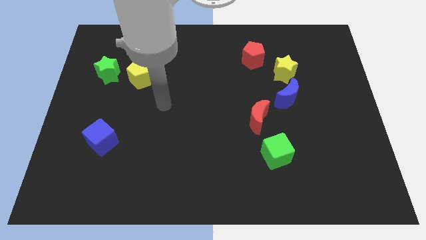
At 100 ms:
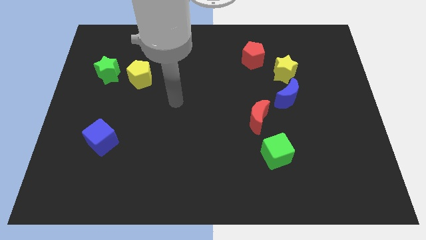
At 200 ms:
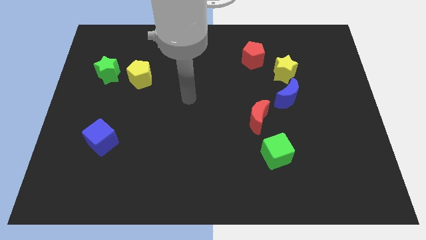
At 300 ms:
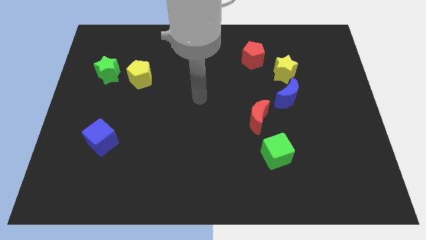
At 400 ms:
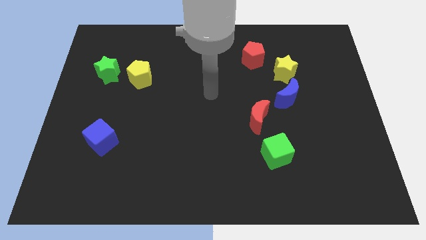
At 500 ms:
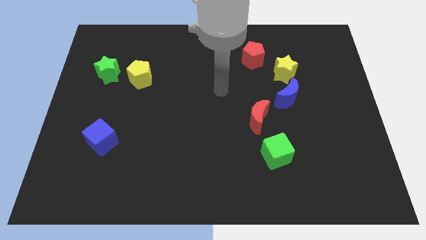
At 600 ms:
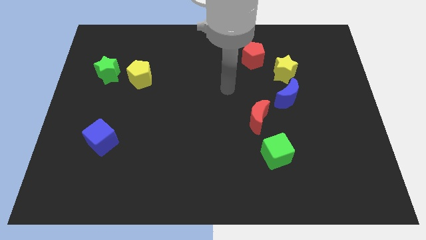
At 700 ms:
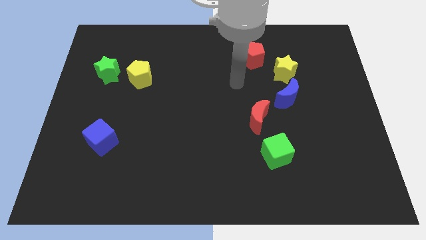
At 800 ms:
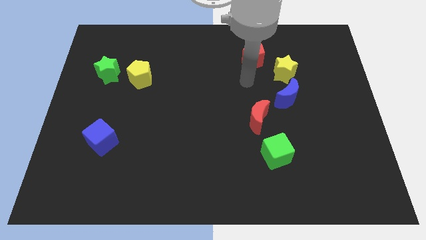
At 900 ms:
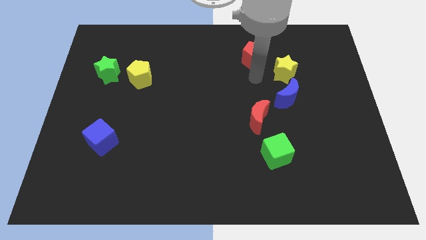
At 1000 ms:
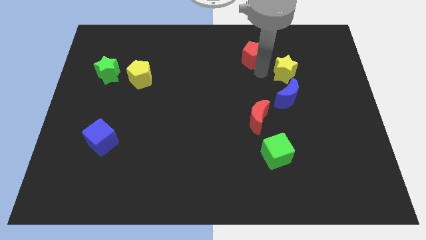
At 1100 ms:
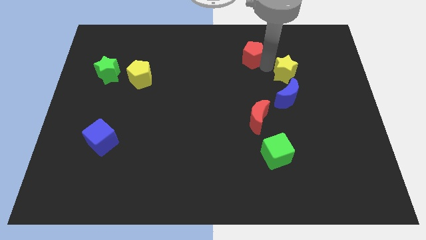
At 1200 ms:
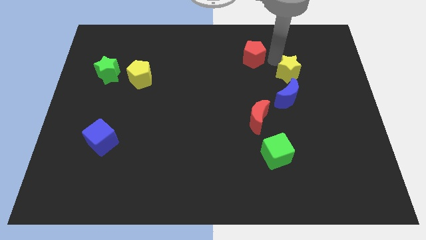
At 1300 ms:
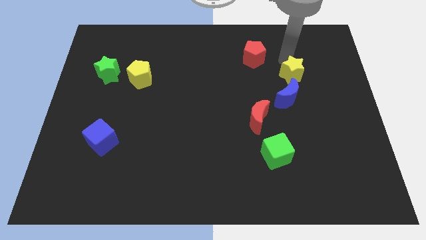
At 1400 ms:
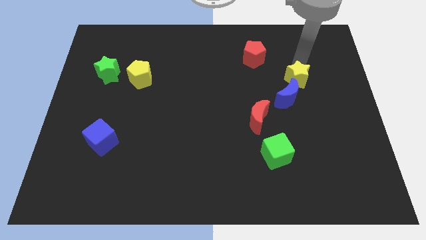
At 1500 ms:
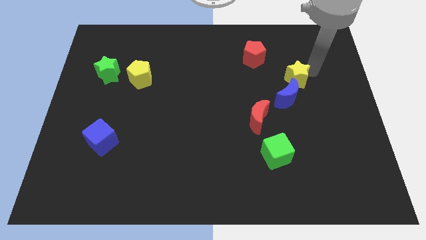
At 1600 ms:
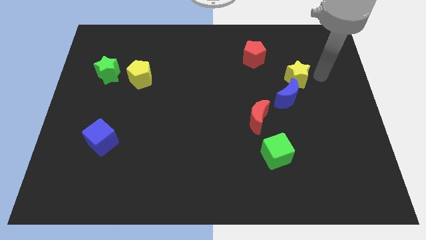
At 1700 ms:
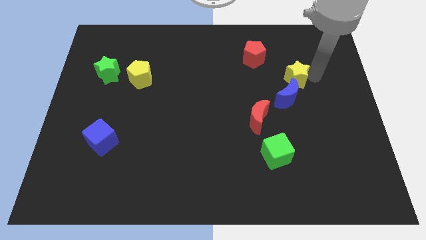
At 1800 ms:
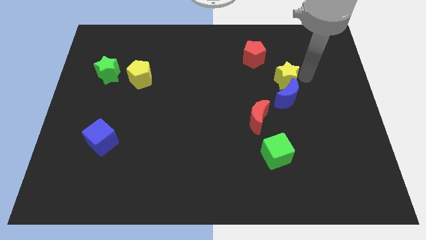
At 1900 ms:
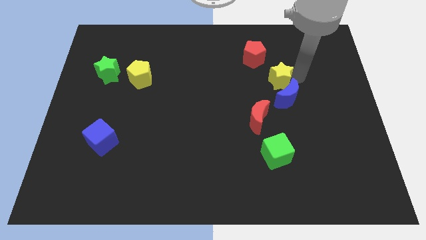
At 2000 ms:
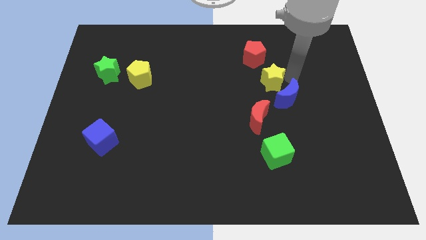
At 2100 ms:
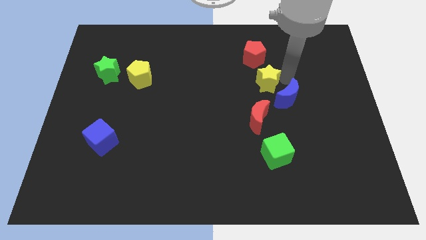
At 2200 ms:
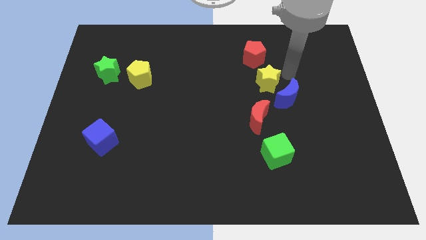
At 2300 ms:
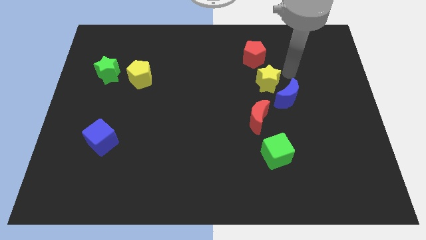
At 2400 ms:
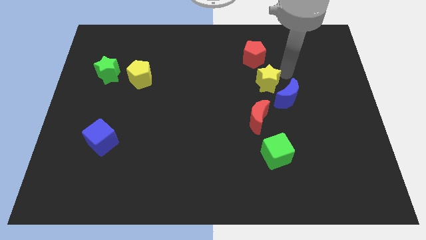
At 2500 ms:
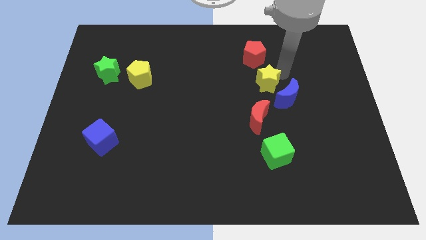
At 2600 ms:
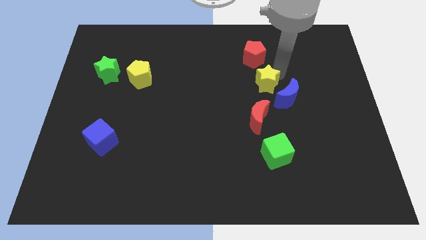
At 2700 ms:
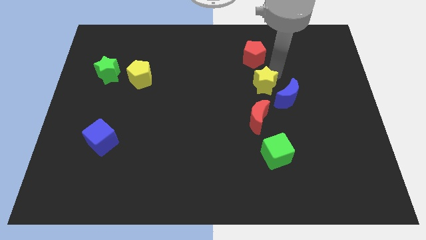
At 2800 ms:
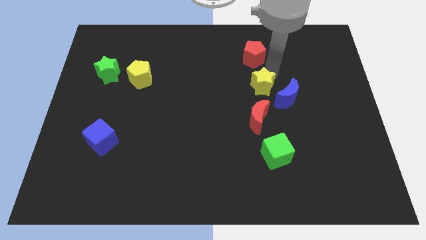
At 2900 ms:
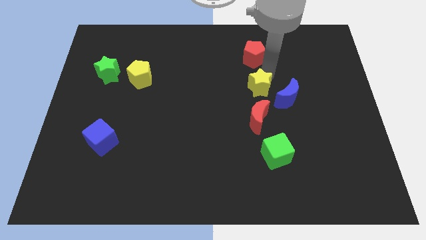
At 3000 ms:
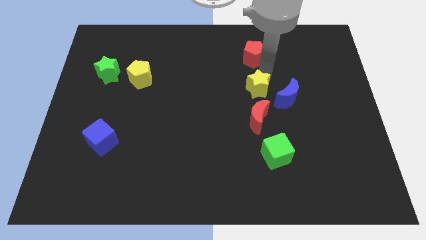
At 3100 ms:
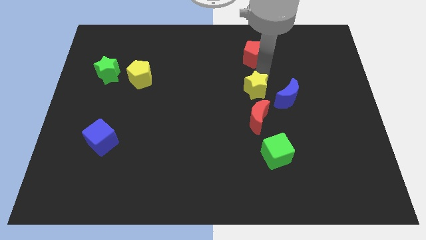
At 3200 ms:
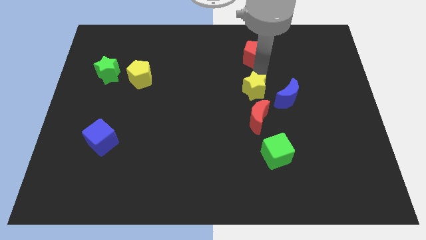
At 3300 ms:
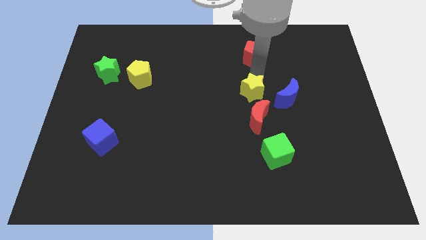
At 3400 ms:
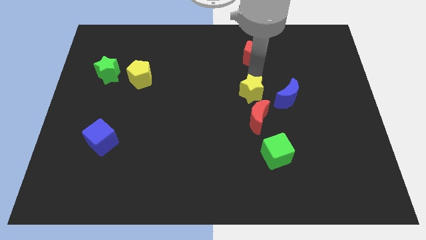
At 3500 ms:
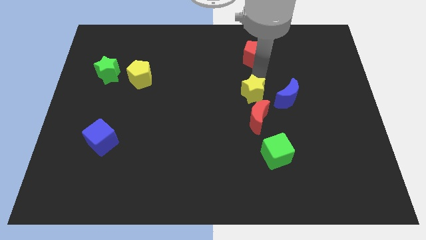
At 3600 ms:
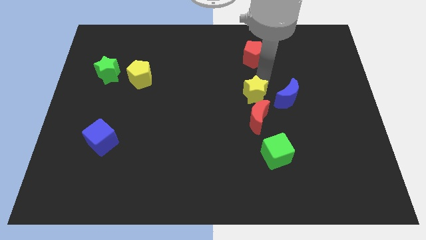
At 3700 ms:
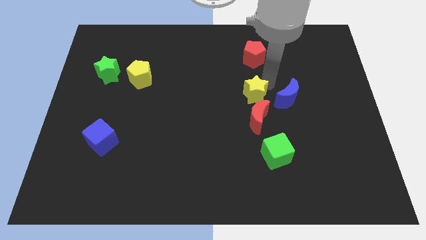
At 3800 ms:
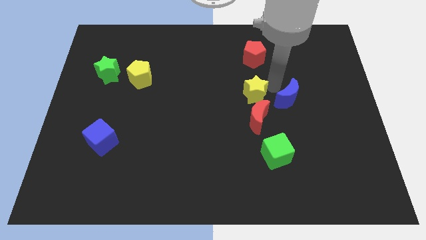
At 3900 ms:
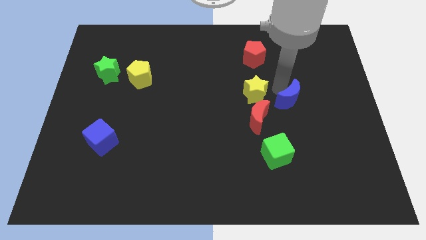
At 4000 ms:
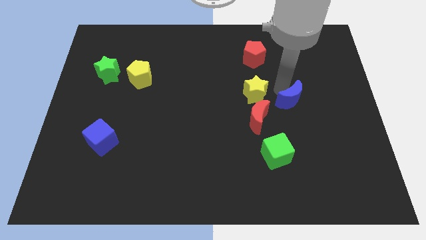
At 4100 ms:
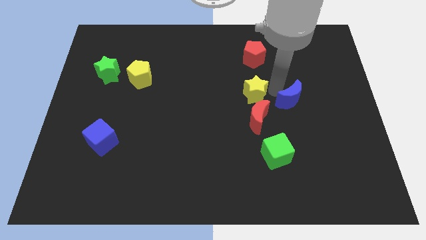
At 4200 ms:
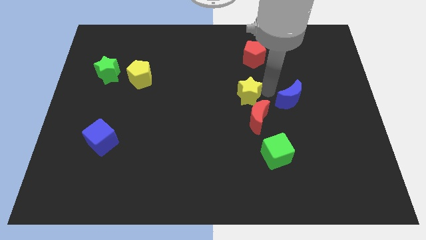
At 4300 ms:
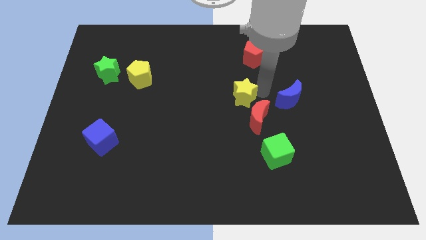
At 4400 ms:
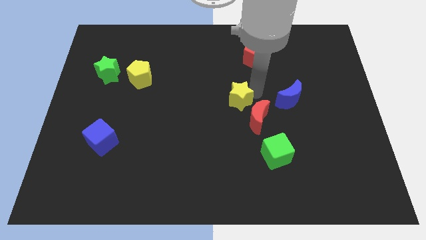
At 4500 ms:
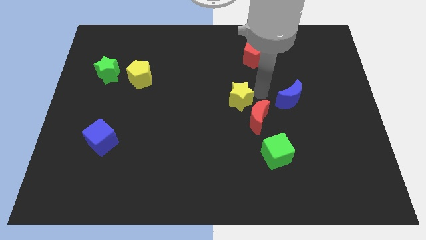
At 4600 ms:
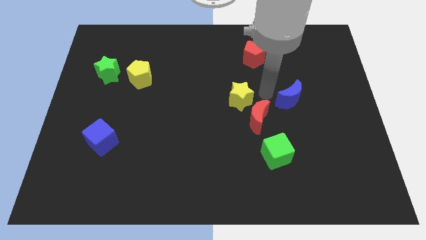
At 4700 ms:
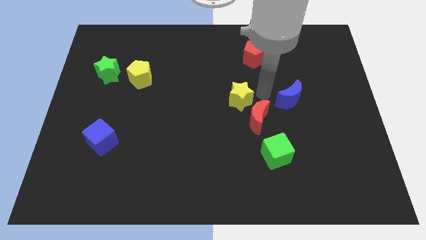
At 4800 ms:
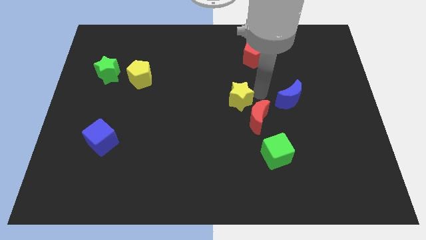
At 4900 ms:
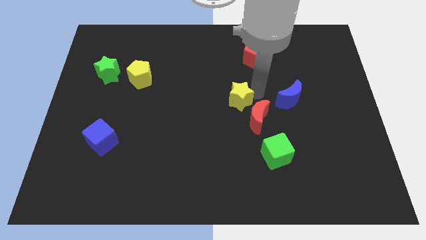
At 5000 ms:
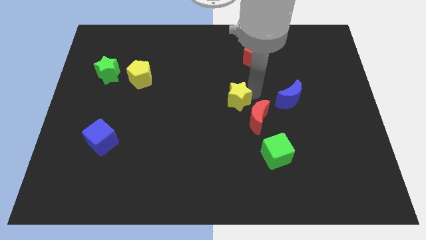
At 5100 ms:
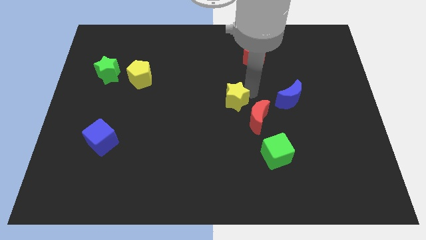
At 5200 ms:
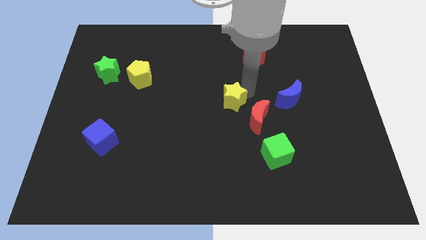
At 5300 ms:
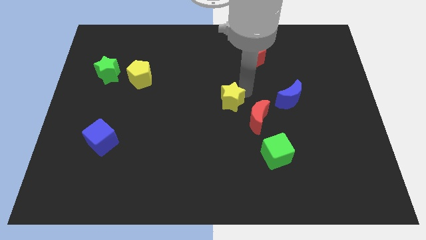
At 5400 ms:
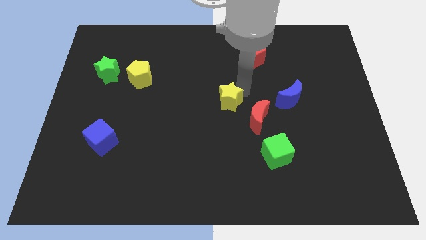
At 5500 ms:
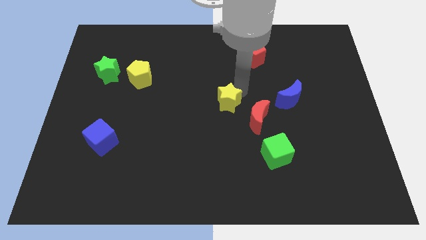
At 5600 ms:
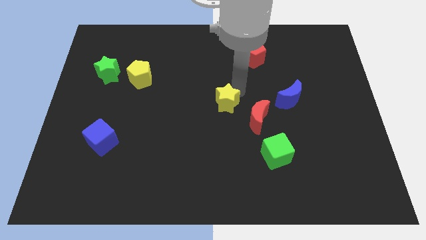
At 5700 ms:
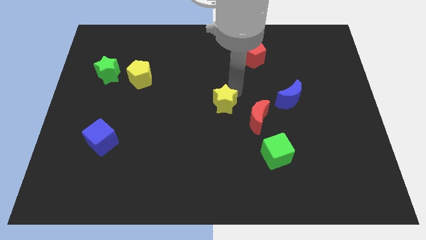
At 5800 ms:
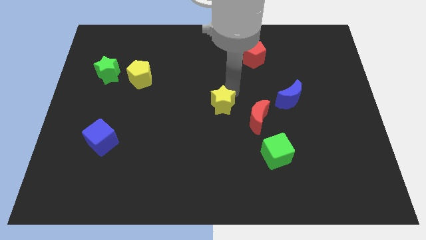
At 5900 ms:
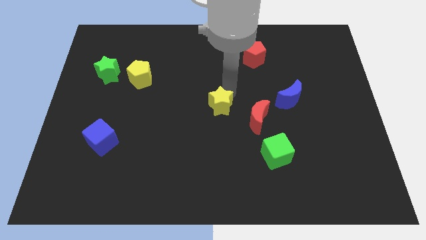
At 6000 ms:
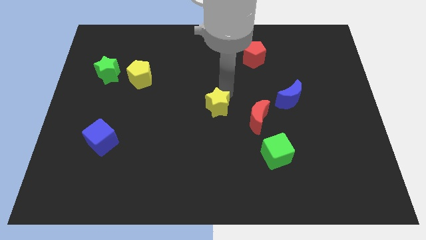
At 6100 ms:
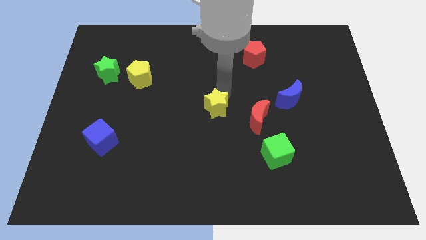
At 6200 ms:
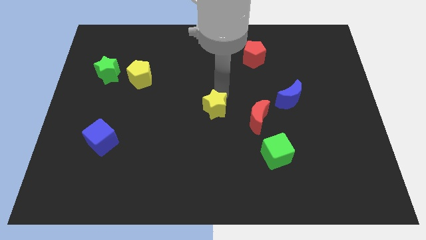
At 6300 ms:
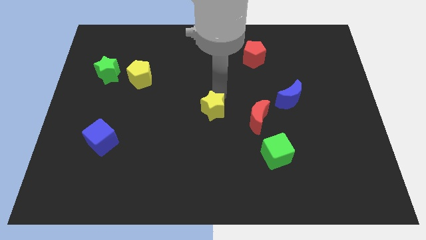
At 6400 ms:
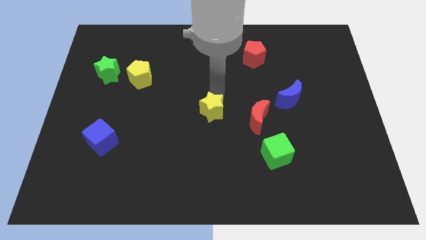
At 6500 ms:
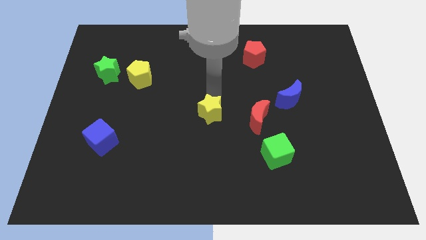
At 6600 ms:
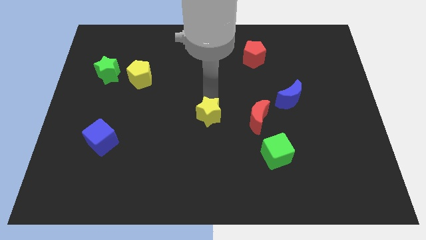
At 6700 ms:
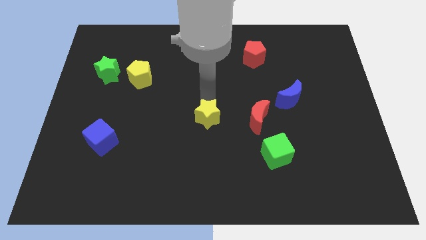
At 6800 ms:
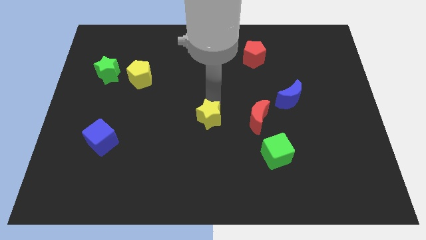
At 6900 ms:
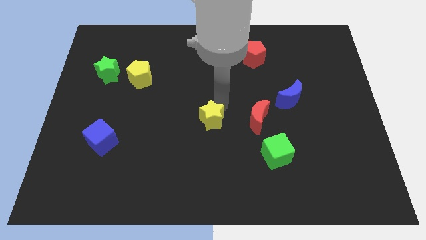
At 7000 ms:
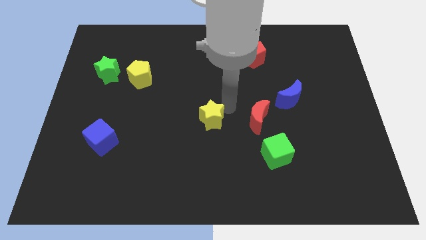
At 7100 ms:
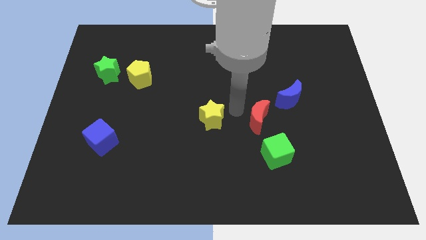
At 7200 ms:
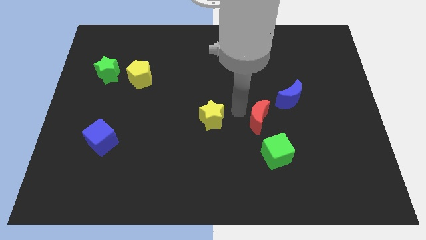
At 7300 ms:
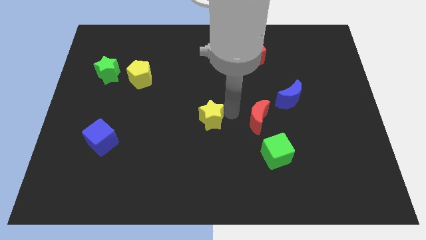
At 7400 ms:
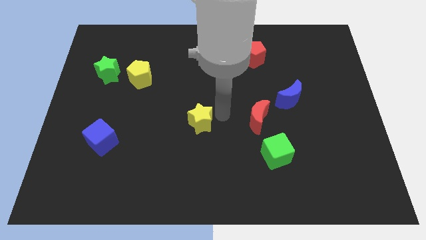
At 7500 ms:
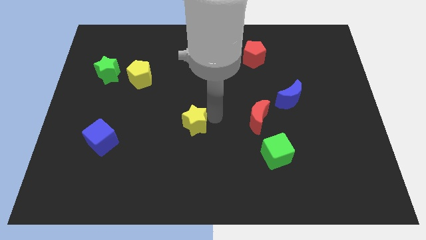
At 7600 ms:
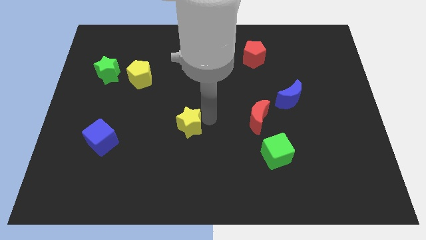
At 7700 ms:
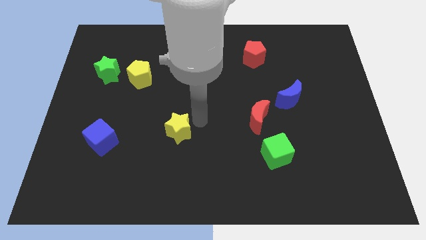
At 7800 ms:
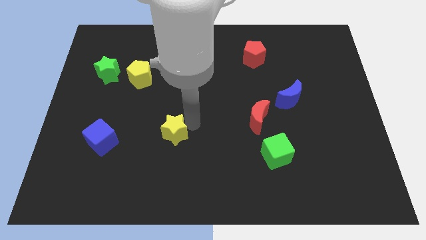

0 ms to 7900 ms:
move the yellow star to the right side of the blue cube

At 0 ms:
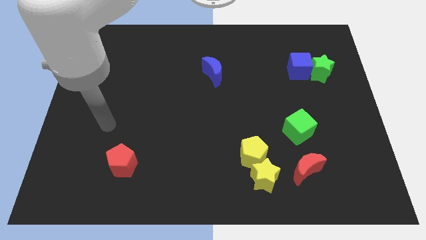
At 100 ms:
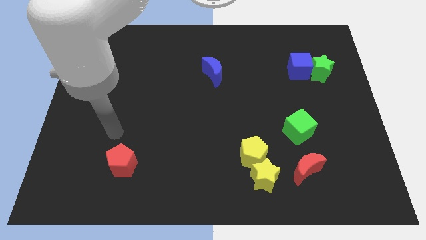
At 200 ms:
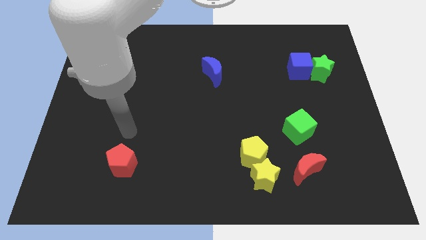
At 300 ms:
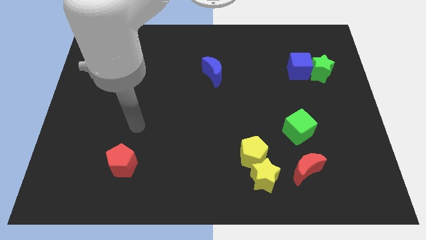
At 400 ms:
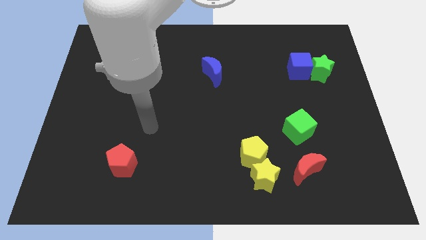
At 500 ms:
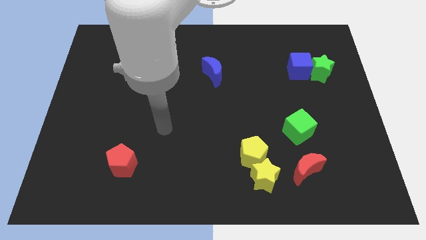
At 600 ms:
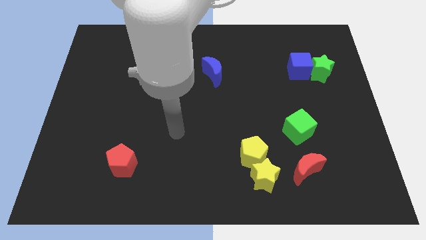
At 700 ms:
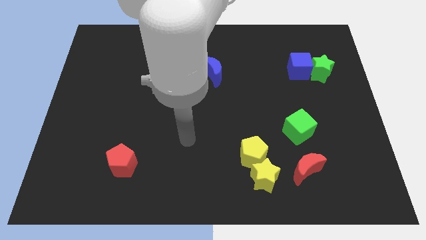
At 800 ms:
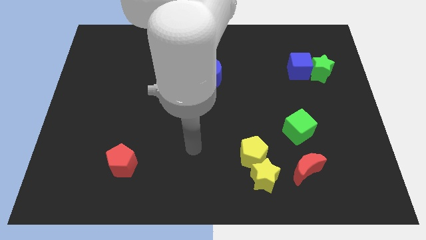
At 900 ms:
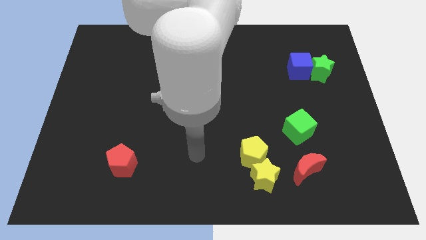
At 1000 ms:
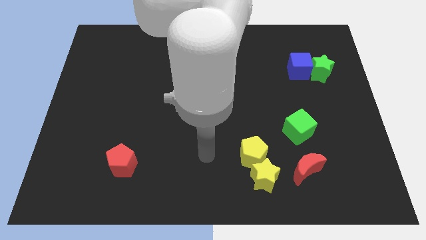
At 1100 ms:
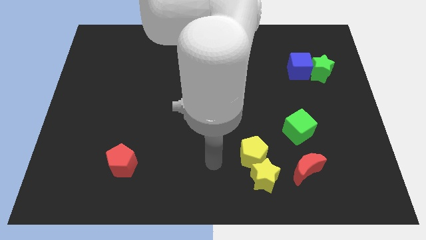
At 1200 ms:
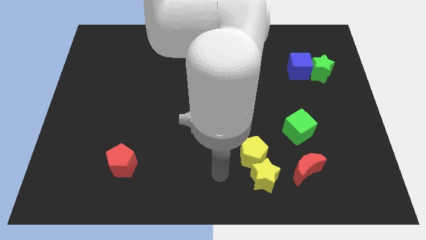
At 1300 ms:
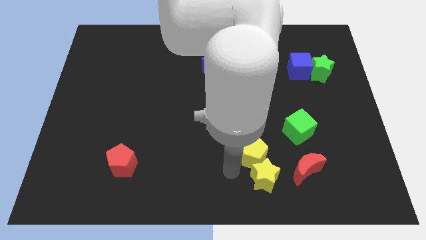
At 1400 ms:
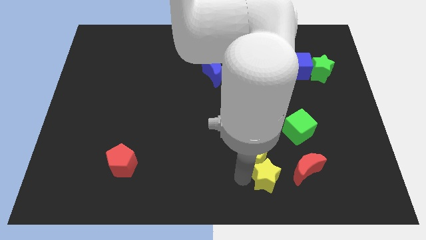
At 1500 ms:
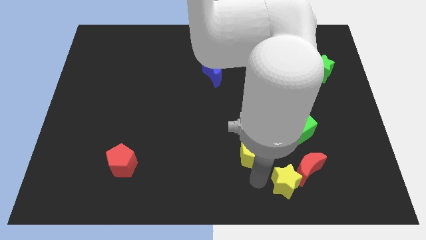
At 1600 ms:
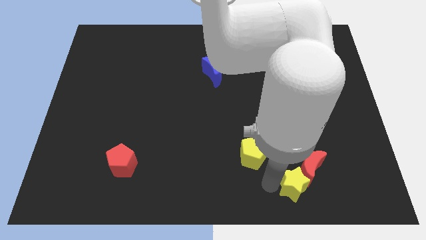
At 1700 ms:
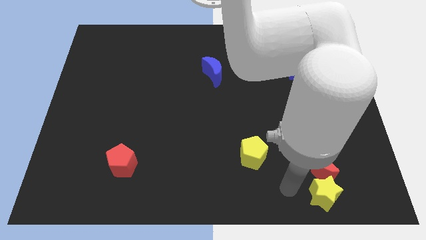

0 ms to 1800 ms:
move the red moon to the bottom right side of the green cube
